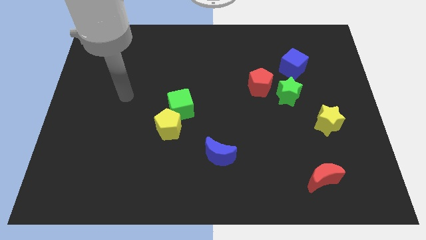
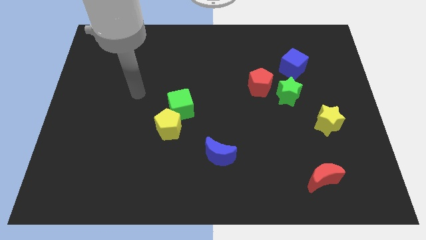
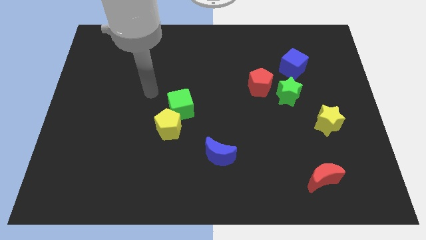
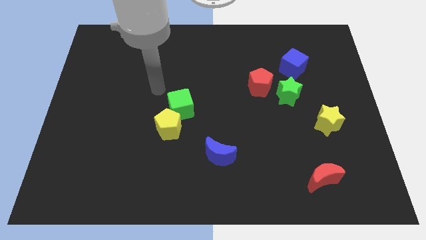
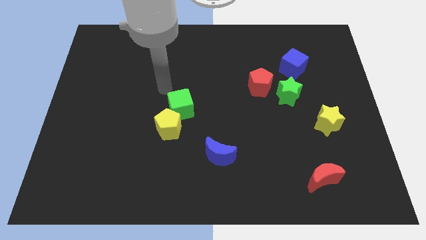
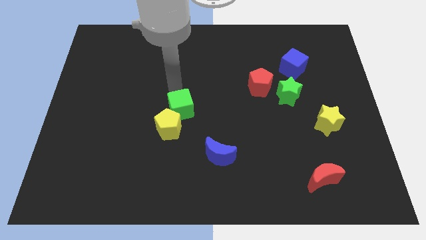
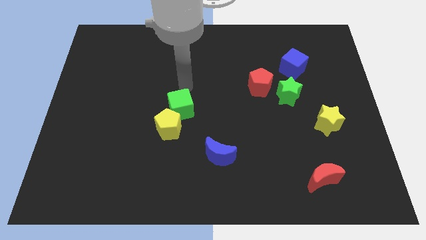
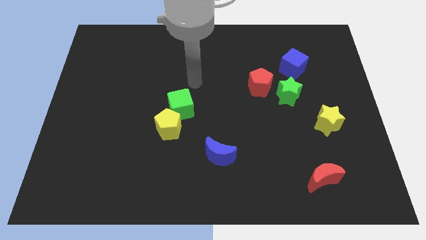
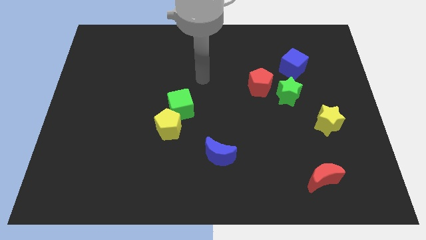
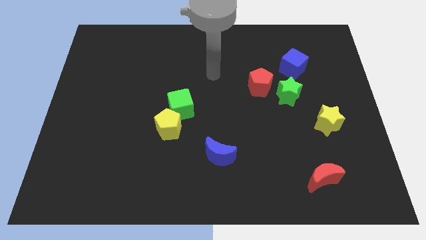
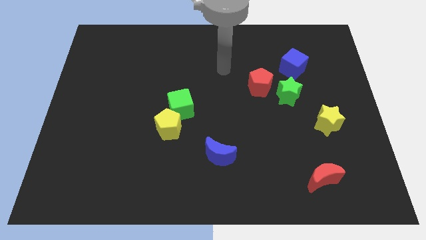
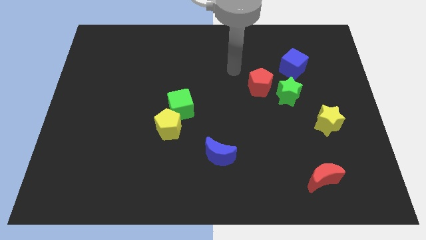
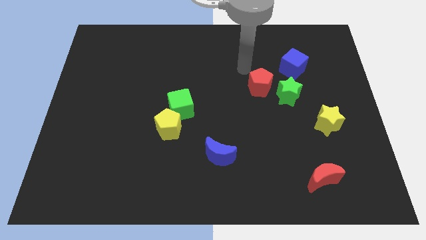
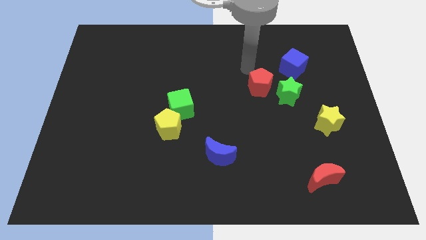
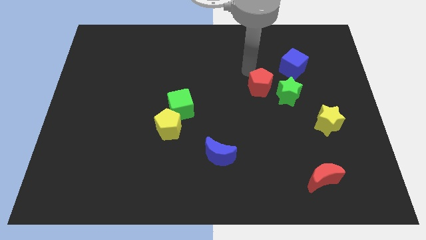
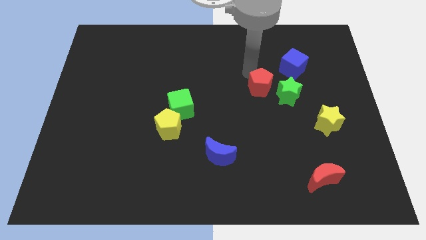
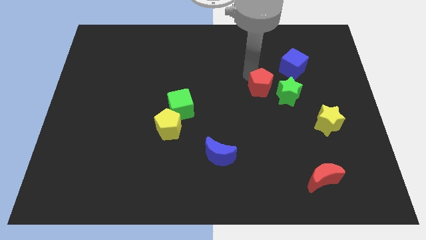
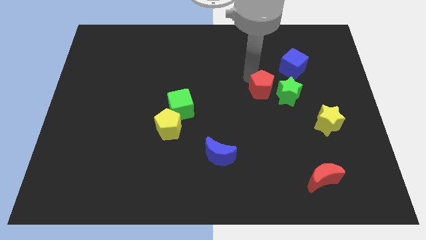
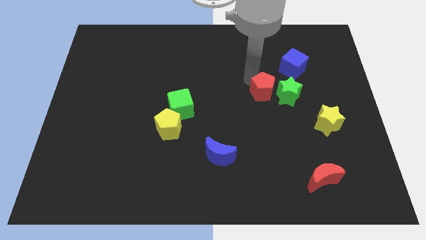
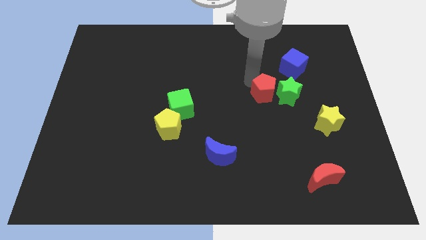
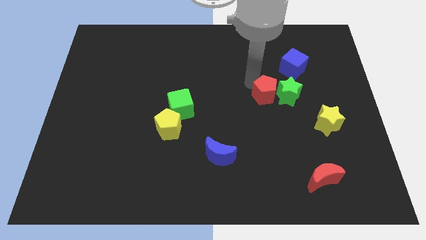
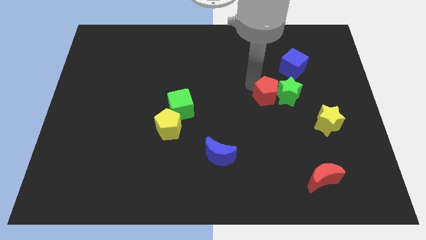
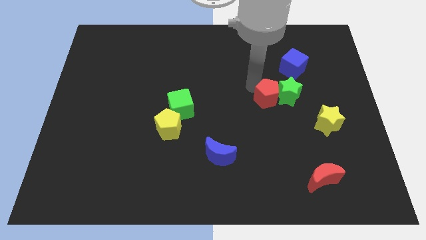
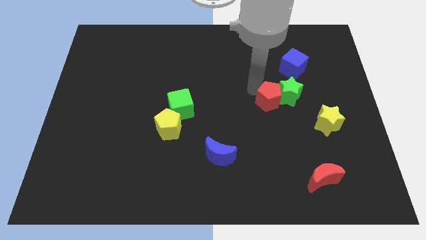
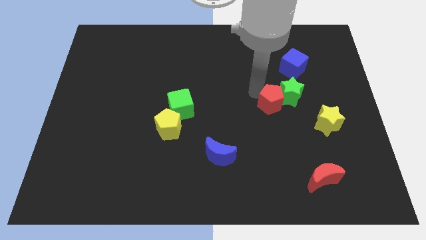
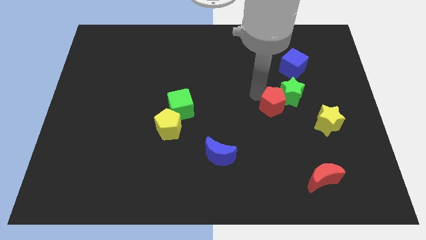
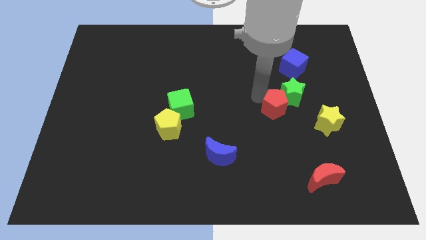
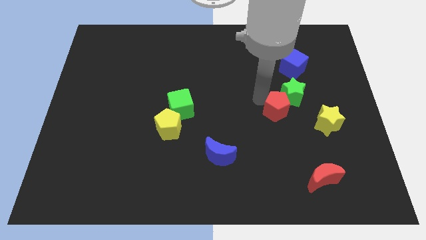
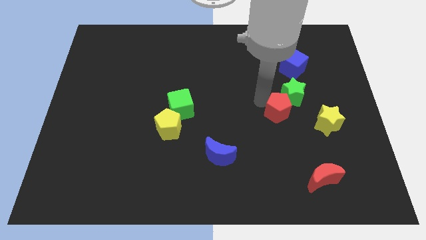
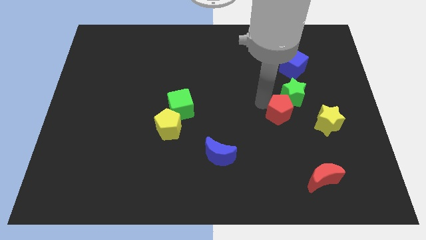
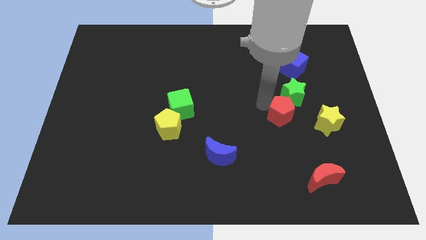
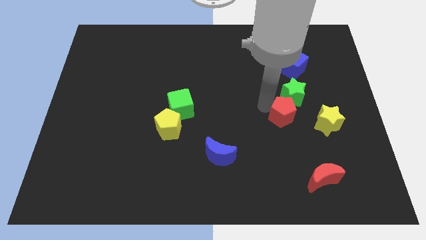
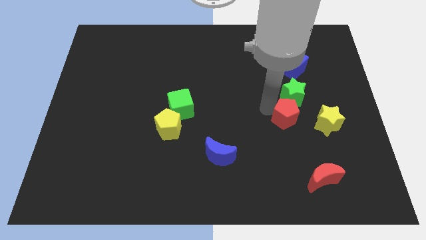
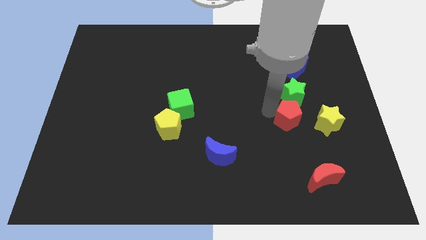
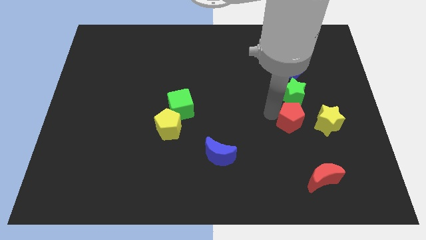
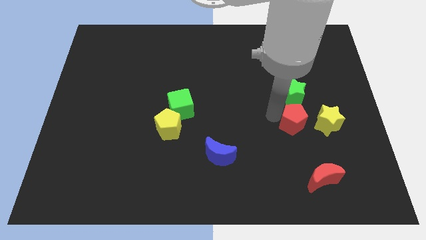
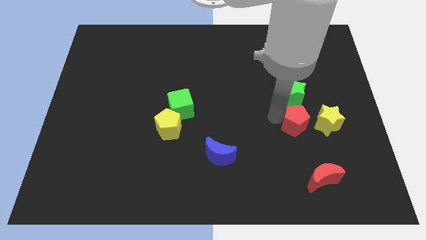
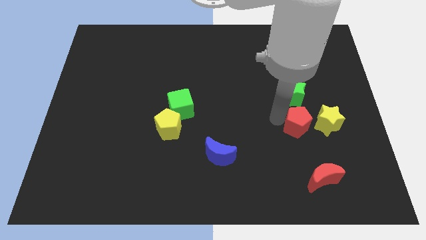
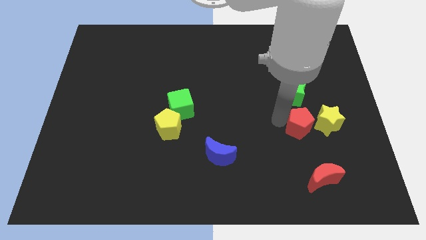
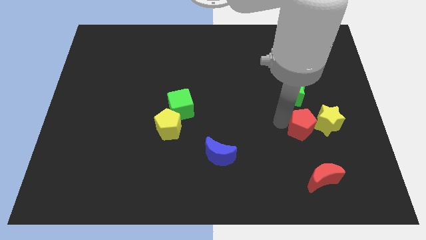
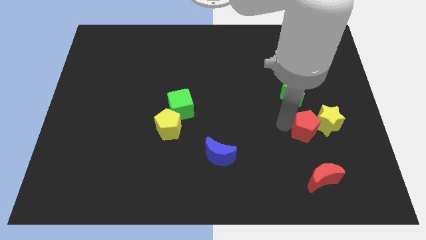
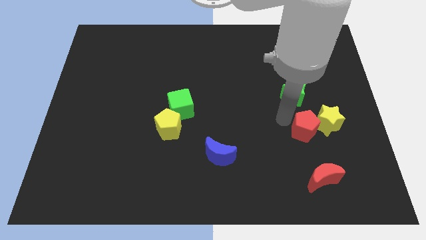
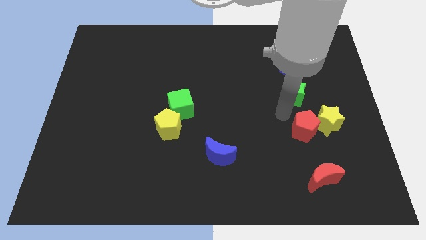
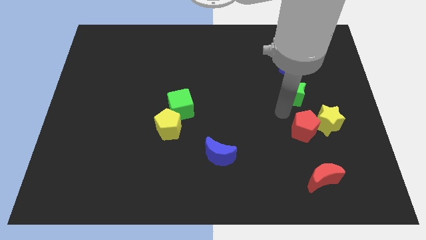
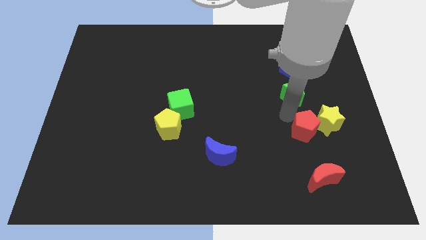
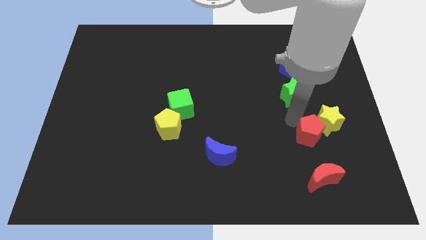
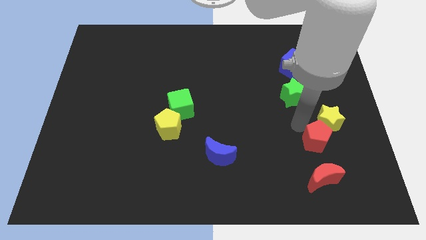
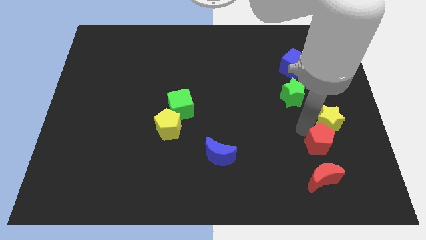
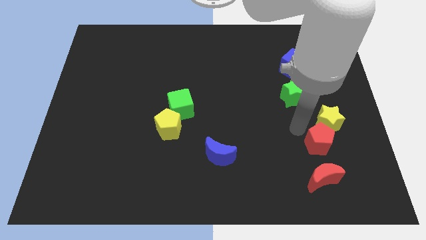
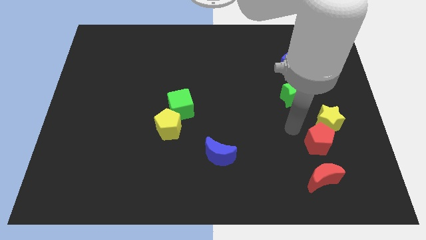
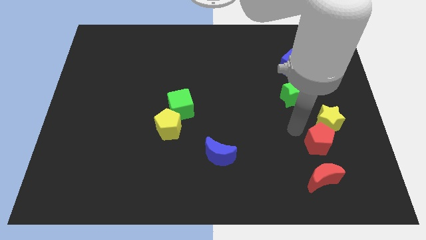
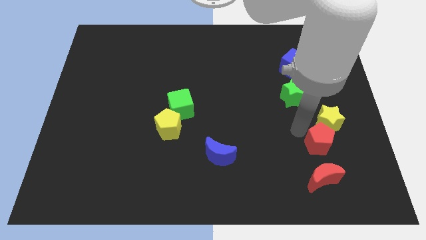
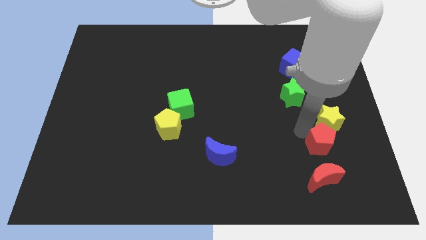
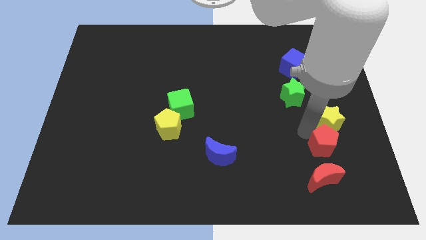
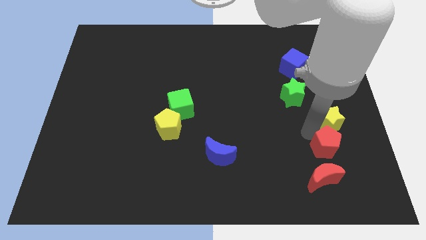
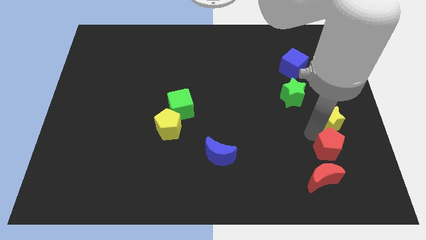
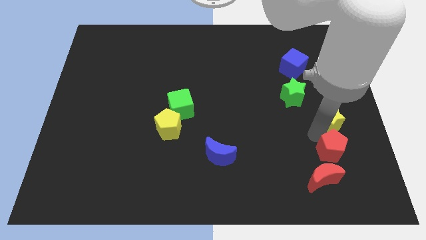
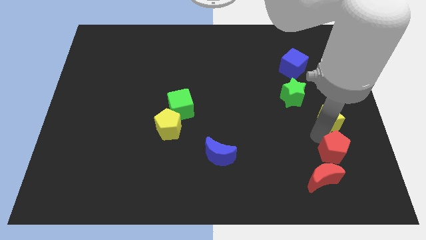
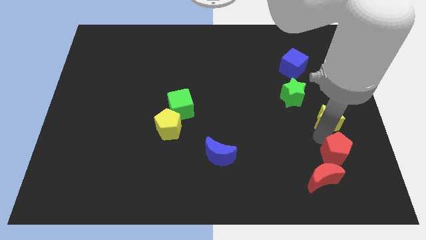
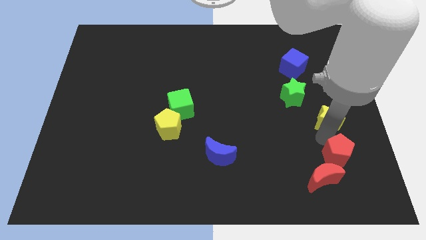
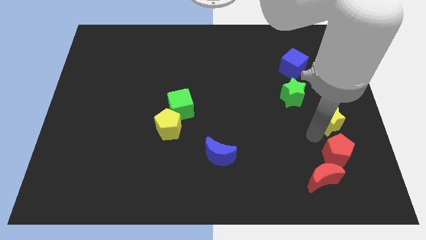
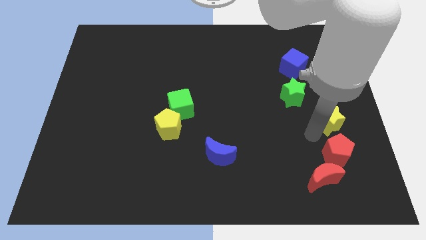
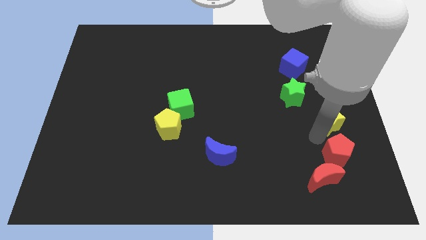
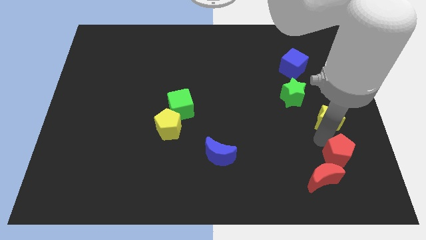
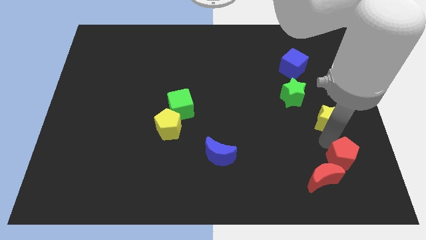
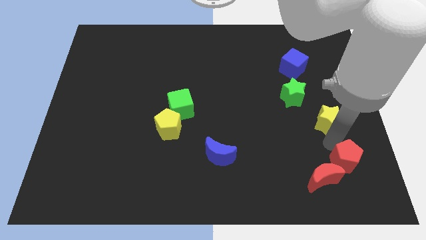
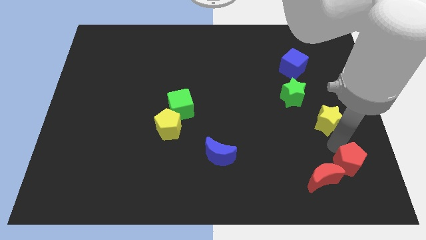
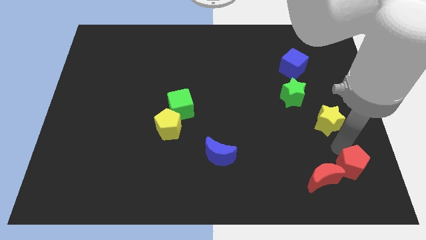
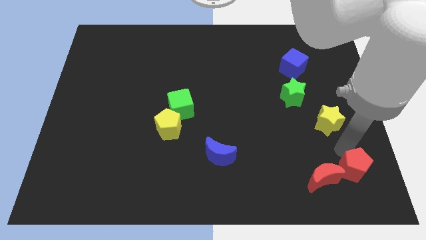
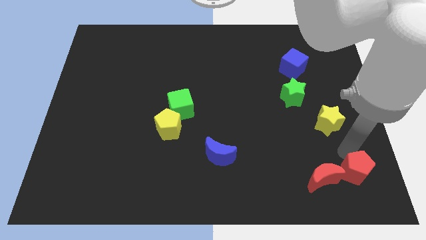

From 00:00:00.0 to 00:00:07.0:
slide the red pentagon to the lower right corner

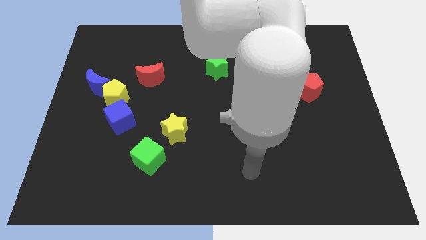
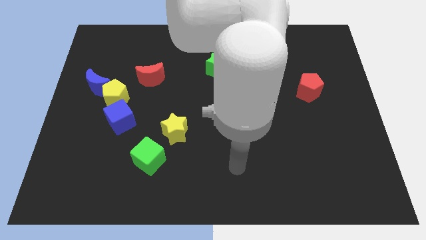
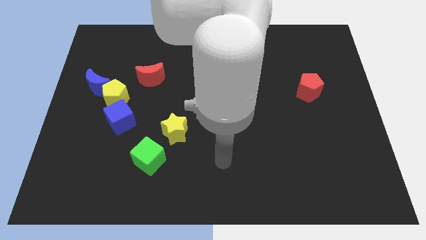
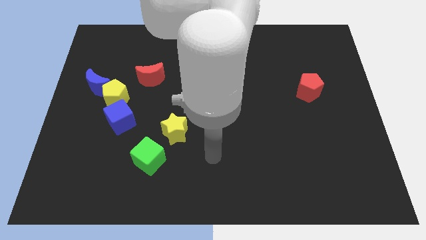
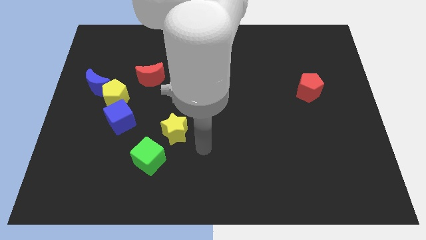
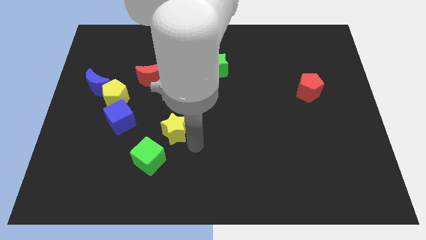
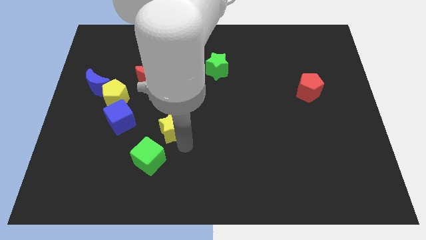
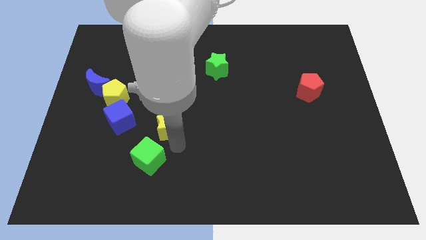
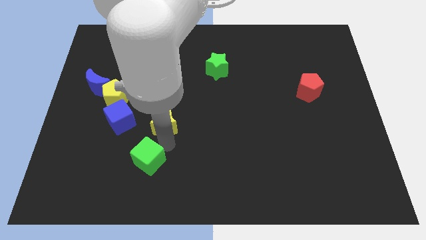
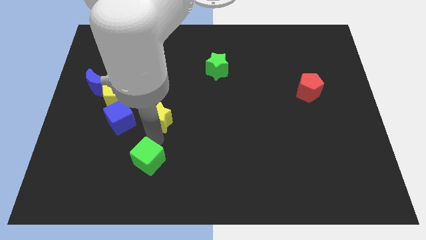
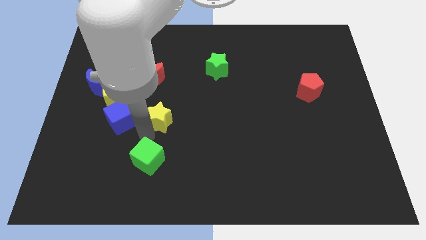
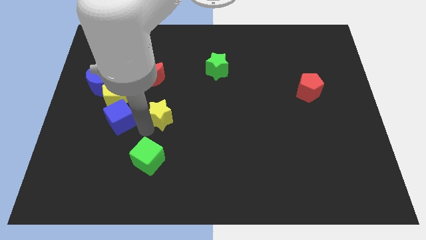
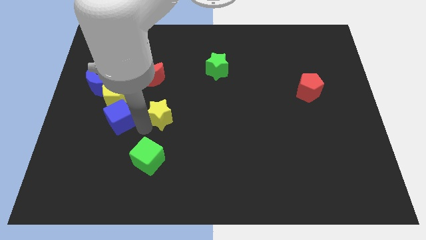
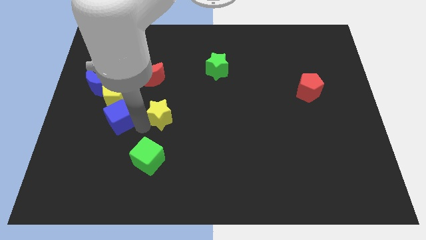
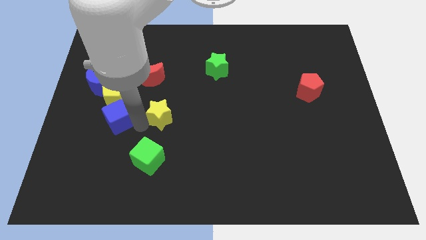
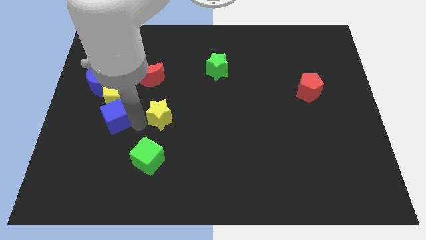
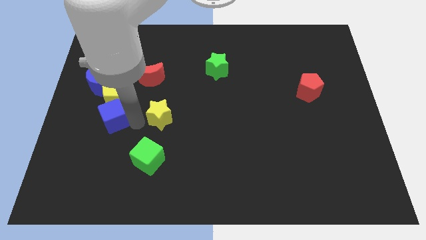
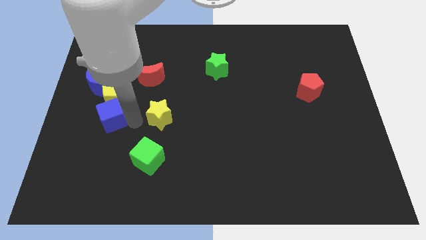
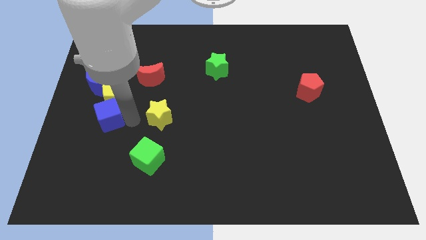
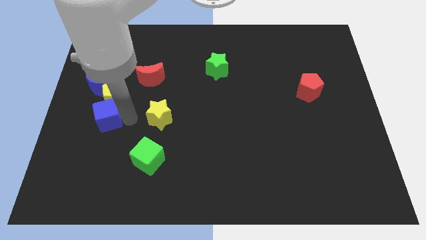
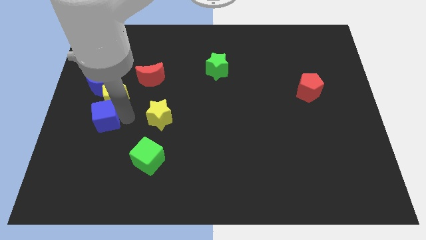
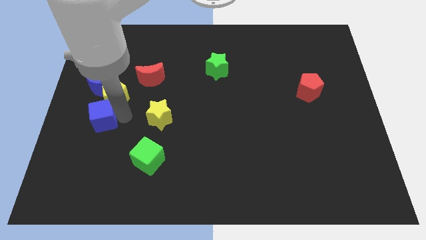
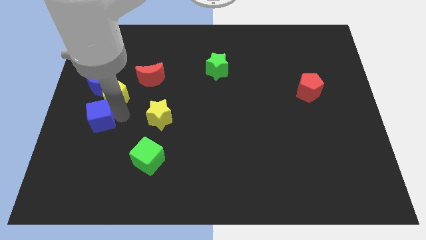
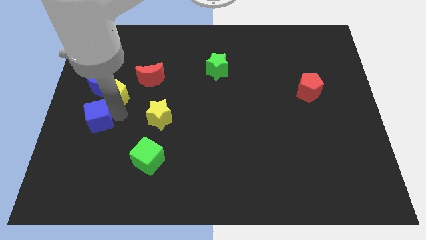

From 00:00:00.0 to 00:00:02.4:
slide the blue cube to the left side
